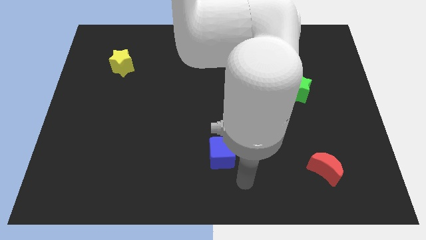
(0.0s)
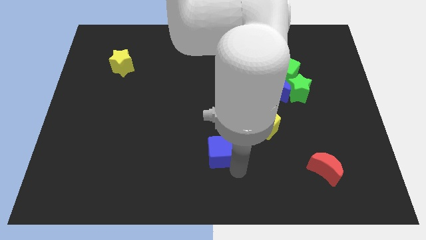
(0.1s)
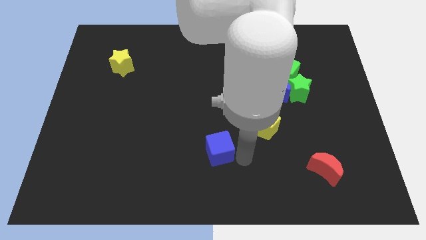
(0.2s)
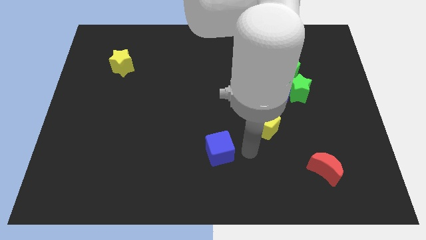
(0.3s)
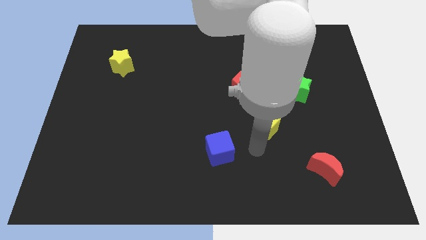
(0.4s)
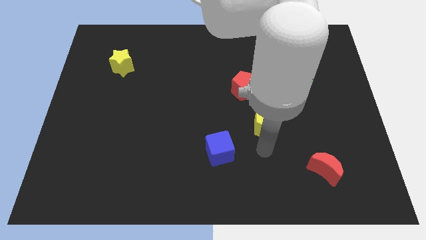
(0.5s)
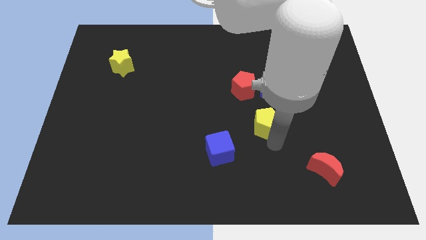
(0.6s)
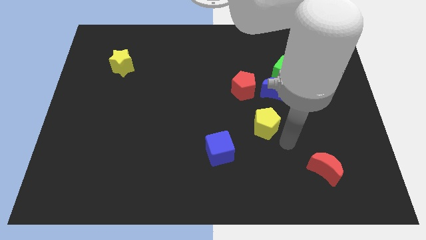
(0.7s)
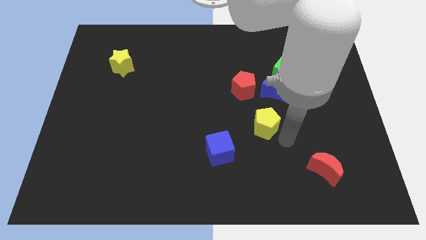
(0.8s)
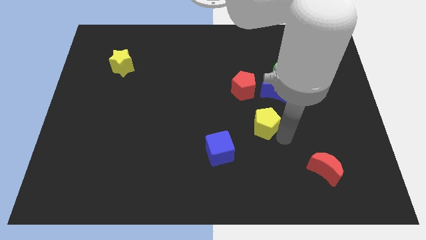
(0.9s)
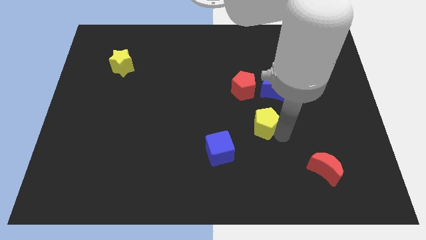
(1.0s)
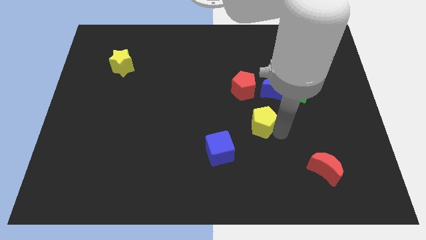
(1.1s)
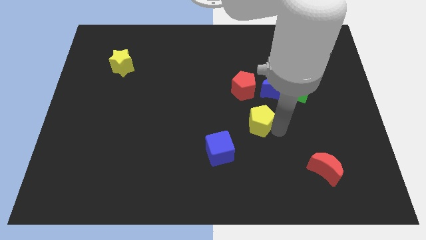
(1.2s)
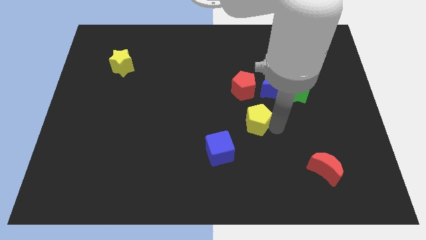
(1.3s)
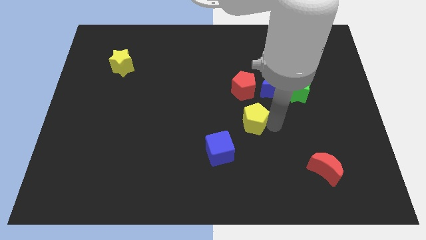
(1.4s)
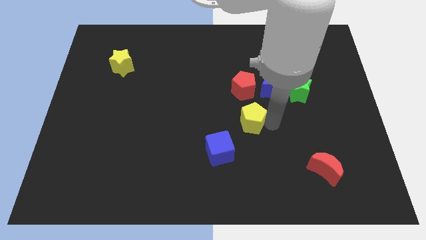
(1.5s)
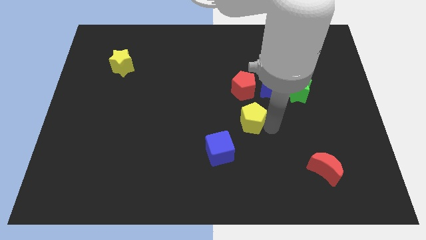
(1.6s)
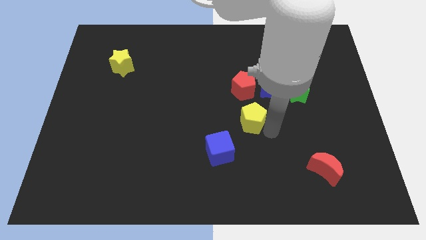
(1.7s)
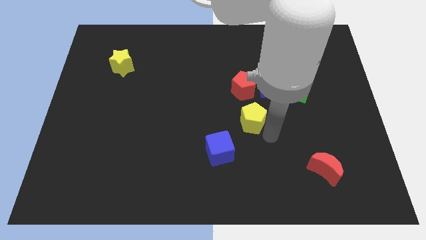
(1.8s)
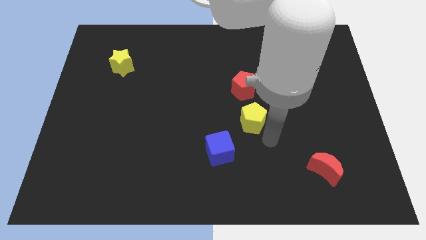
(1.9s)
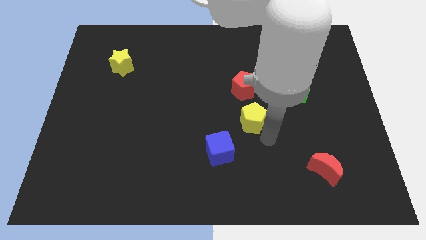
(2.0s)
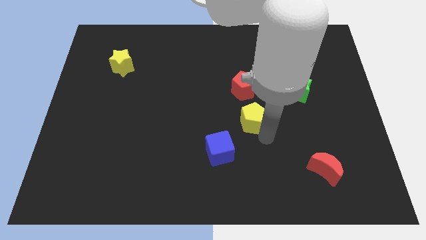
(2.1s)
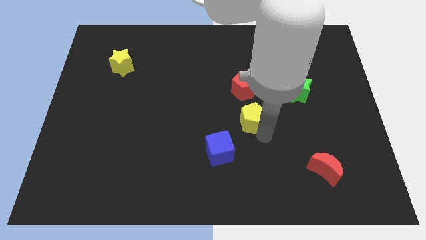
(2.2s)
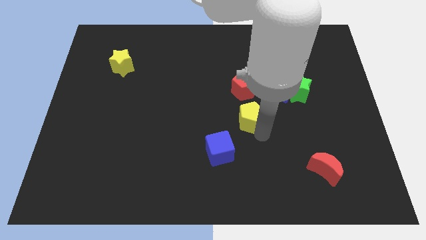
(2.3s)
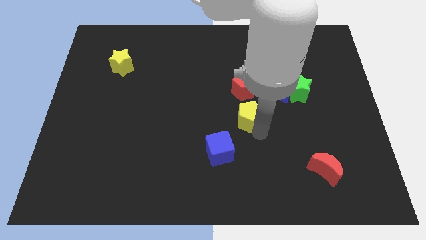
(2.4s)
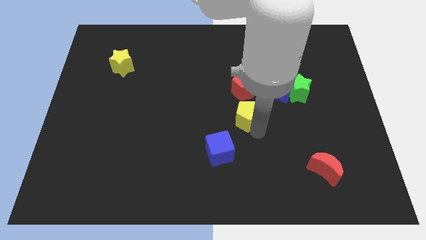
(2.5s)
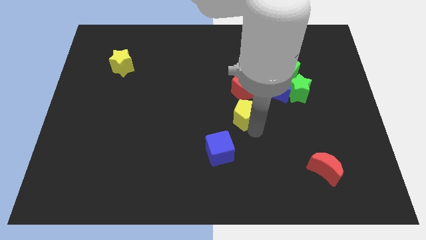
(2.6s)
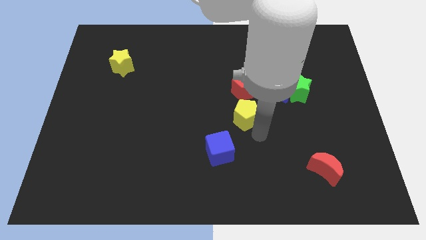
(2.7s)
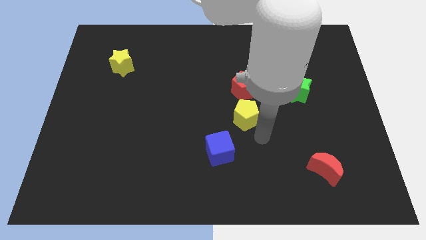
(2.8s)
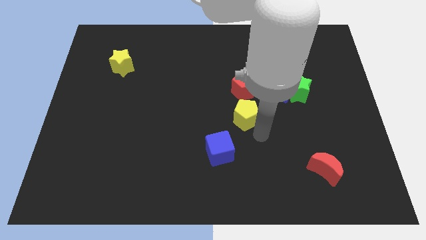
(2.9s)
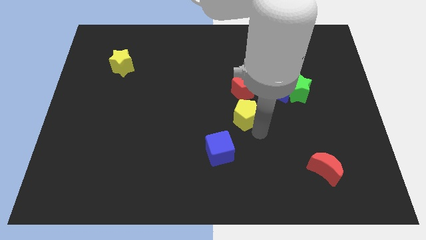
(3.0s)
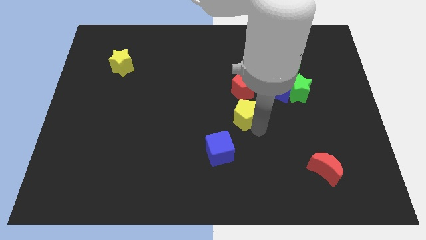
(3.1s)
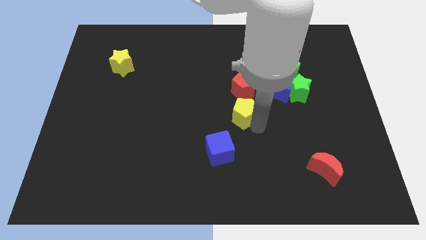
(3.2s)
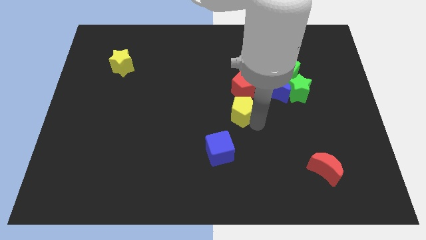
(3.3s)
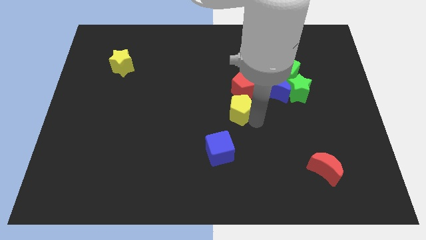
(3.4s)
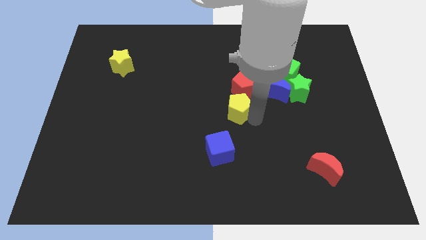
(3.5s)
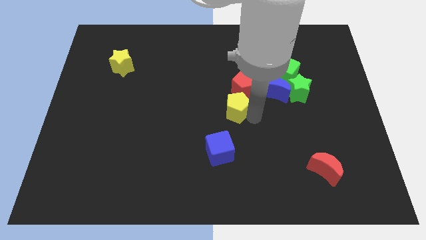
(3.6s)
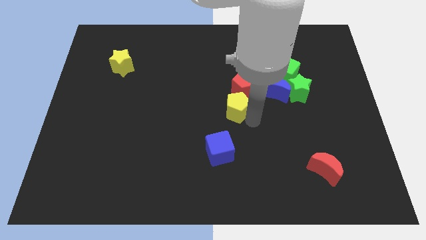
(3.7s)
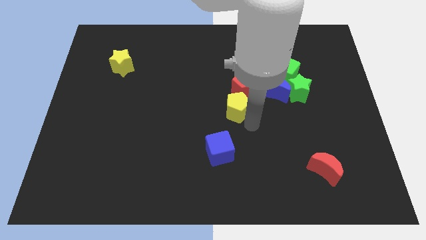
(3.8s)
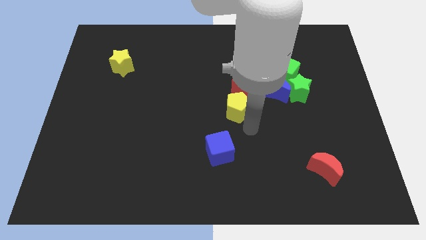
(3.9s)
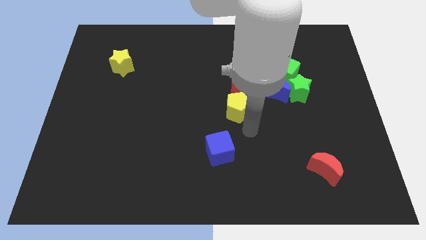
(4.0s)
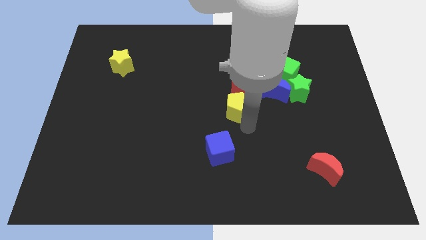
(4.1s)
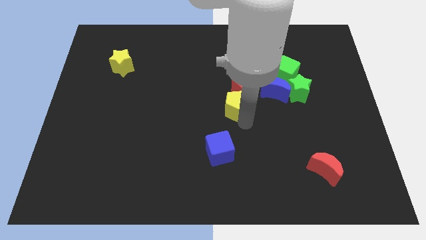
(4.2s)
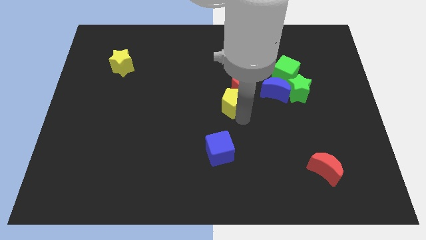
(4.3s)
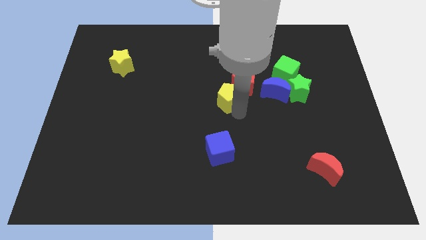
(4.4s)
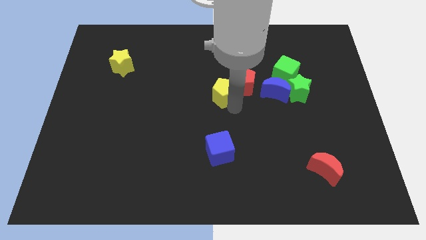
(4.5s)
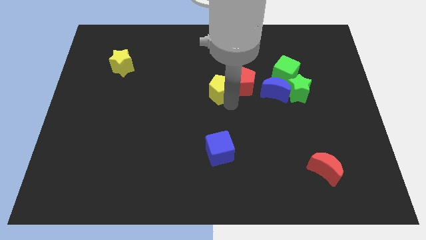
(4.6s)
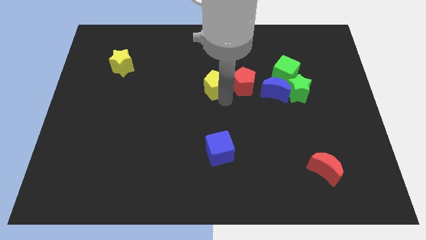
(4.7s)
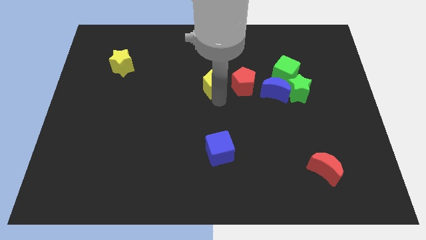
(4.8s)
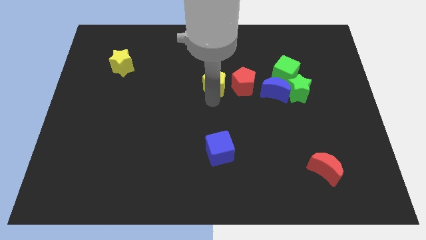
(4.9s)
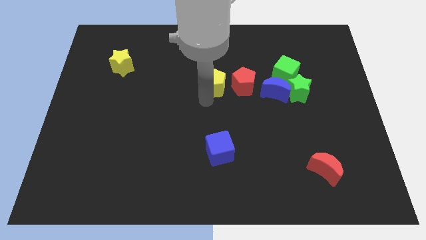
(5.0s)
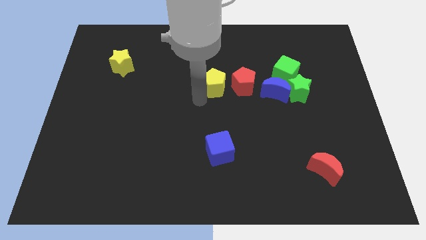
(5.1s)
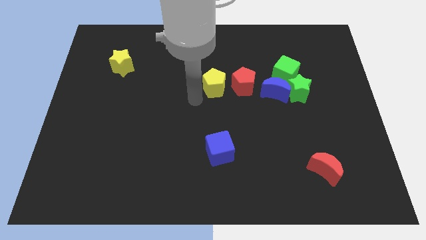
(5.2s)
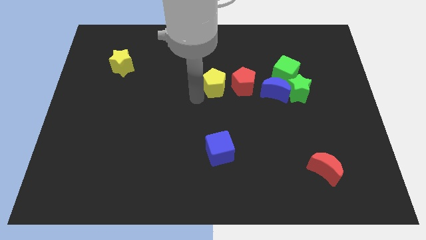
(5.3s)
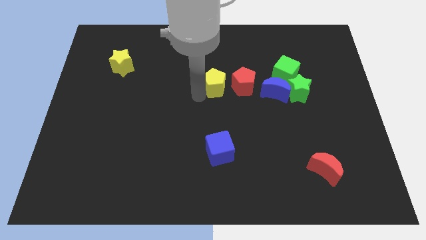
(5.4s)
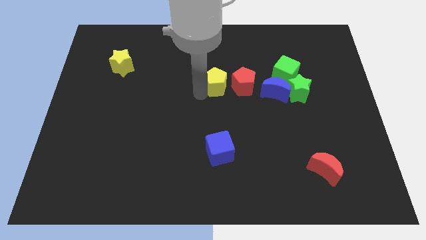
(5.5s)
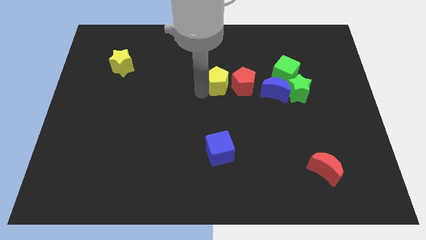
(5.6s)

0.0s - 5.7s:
slide the yellow pentagon upwards a bit

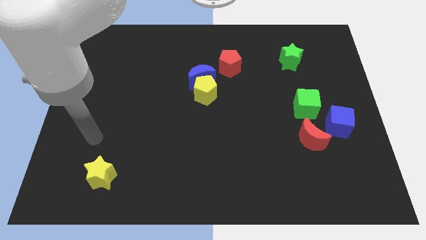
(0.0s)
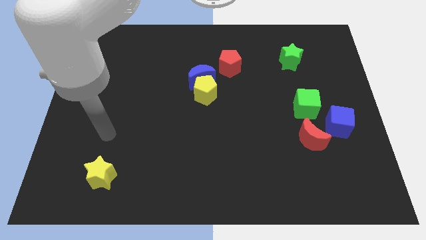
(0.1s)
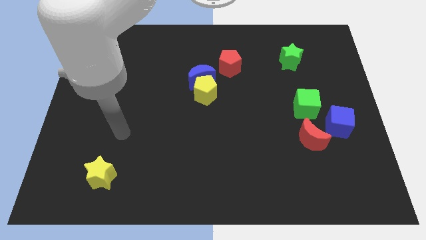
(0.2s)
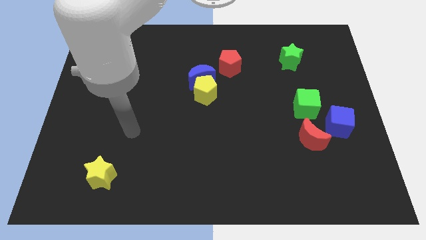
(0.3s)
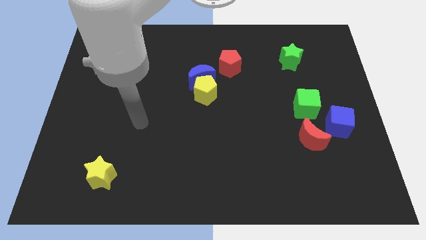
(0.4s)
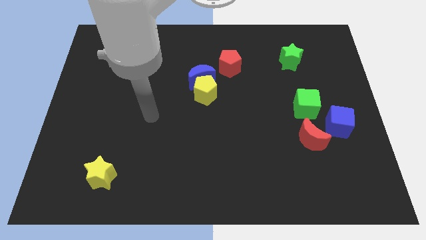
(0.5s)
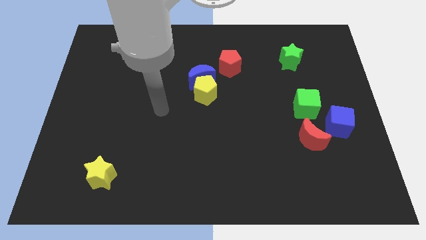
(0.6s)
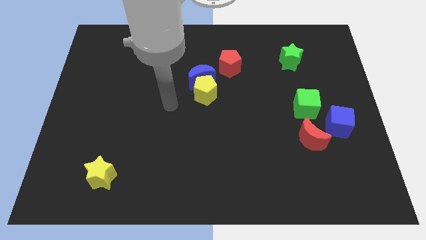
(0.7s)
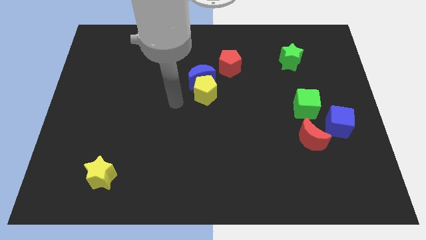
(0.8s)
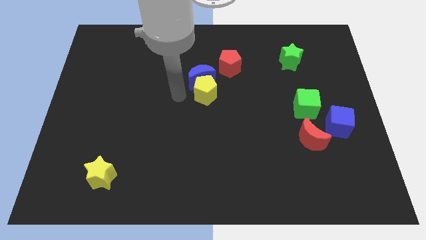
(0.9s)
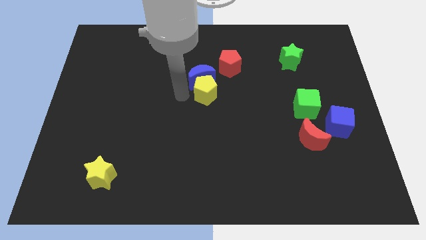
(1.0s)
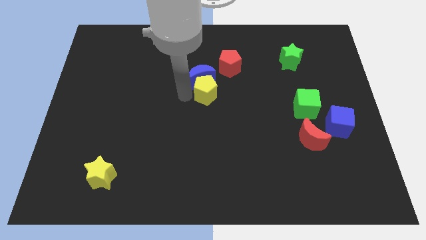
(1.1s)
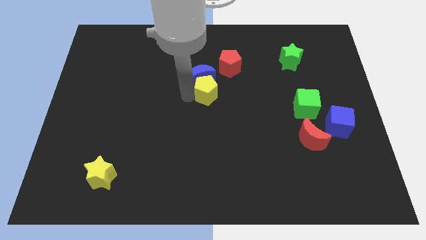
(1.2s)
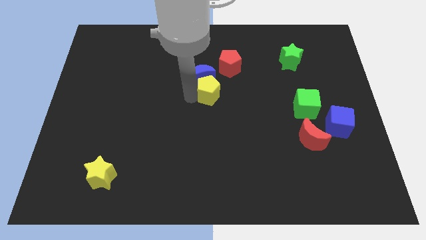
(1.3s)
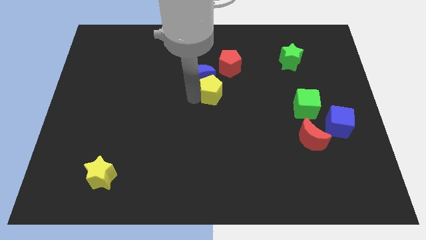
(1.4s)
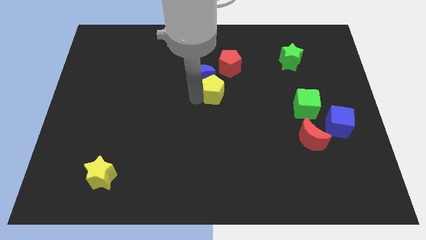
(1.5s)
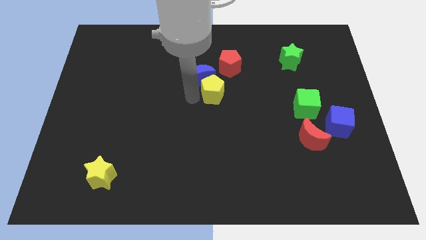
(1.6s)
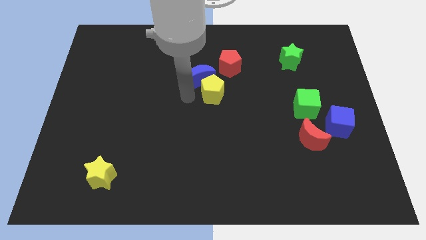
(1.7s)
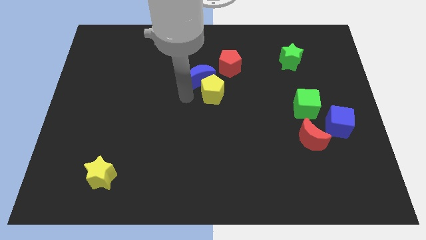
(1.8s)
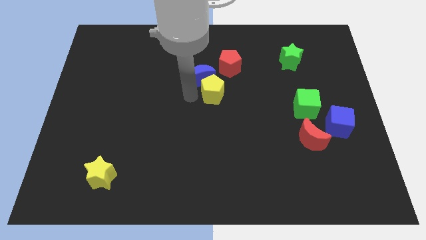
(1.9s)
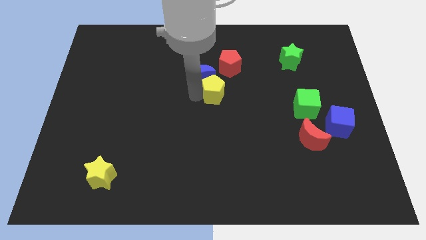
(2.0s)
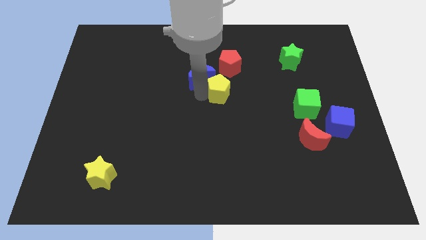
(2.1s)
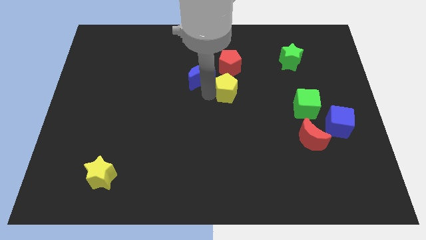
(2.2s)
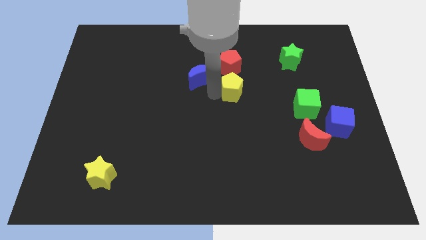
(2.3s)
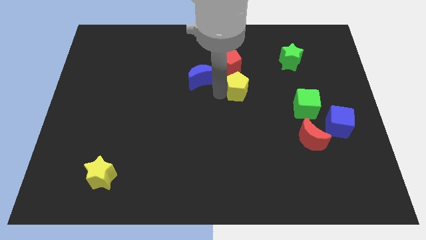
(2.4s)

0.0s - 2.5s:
slide the yellow pentagon right somewhat

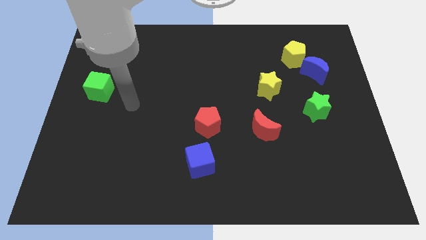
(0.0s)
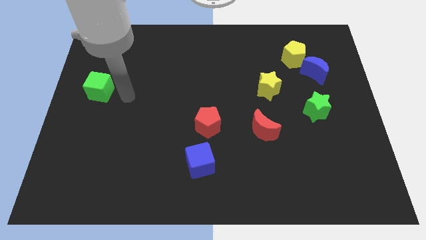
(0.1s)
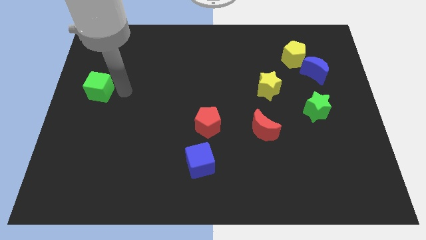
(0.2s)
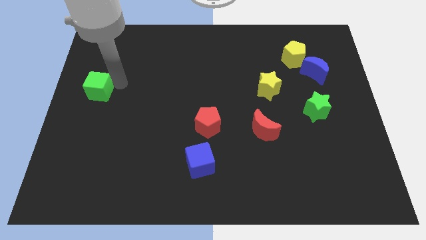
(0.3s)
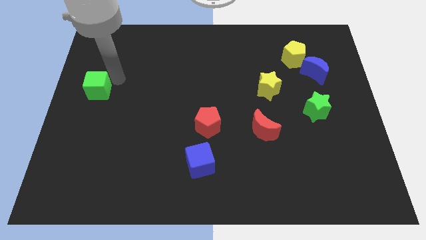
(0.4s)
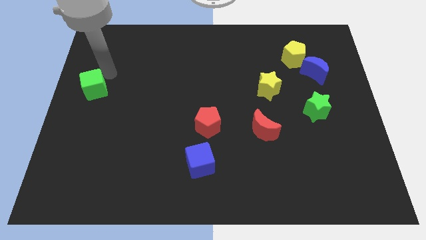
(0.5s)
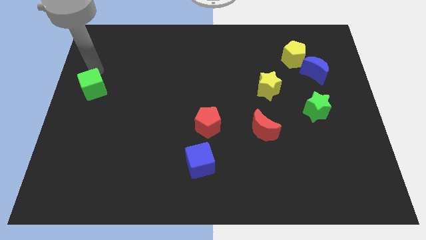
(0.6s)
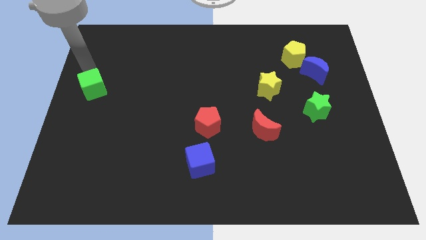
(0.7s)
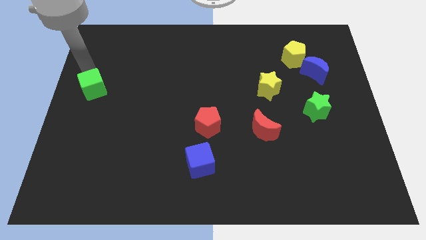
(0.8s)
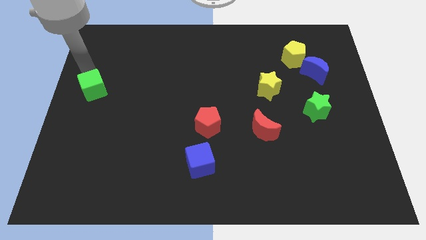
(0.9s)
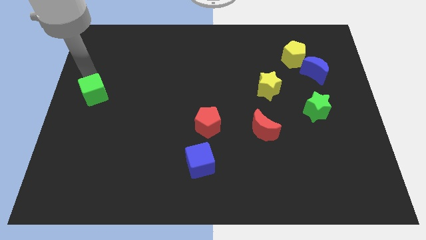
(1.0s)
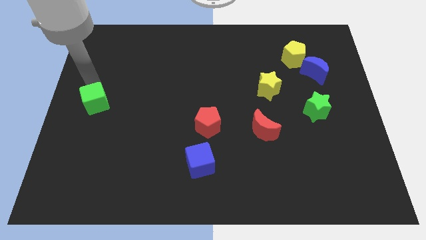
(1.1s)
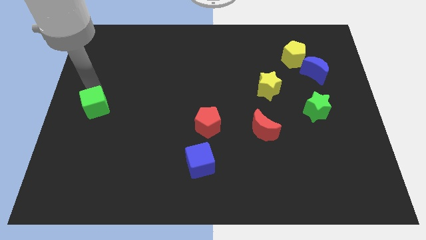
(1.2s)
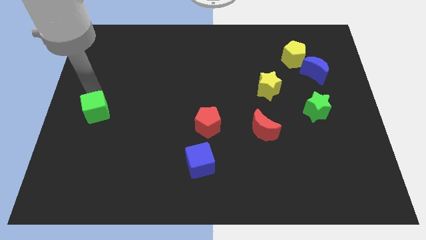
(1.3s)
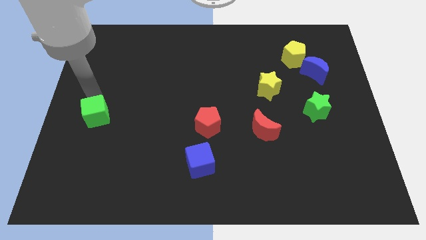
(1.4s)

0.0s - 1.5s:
slightly push the green cube down
